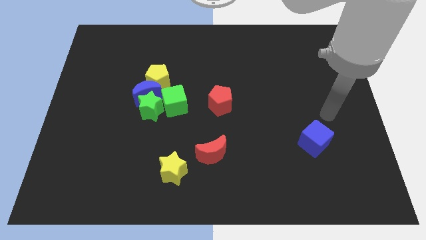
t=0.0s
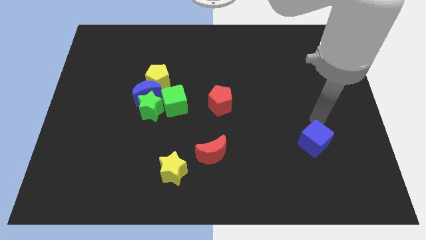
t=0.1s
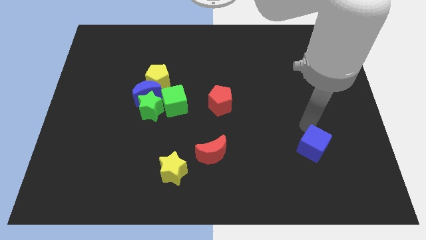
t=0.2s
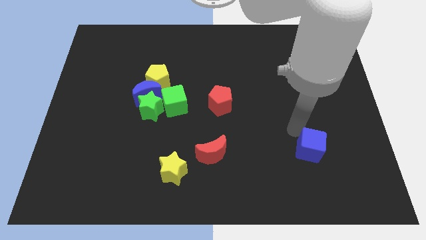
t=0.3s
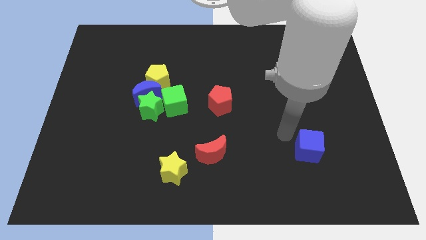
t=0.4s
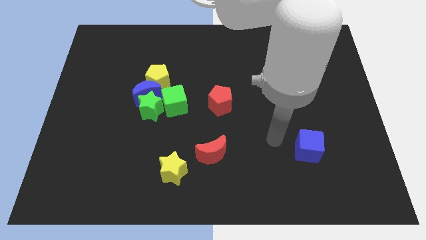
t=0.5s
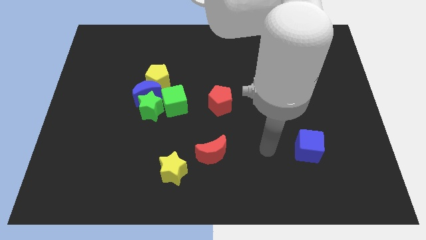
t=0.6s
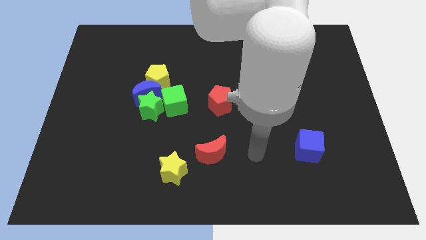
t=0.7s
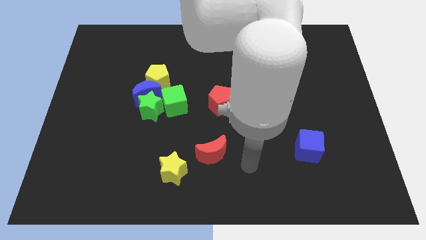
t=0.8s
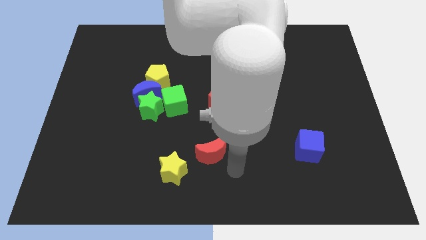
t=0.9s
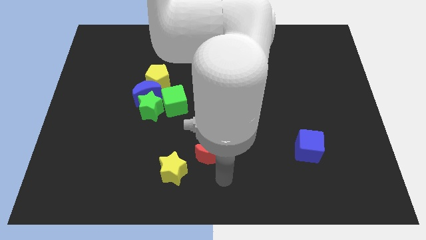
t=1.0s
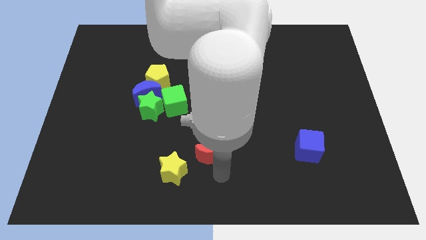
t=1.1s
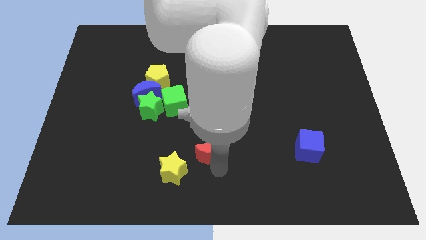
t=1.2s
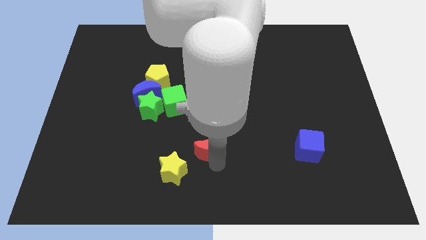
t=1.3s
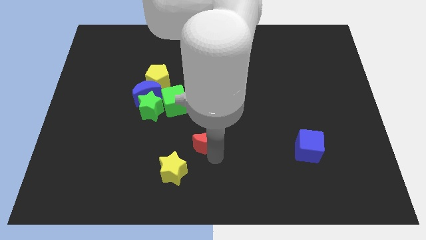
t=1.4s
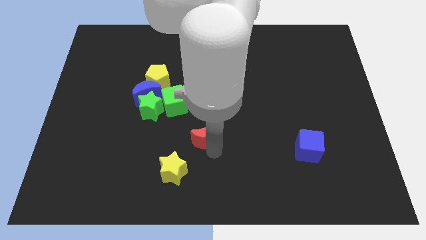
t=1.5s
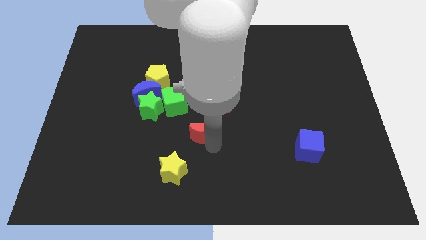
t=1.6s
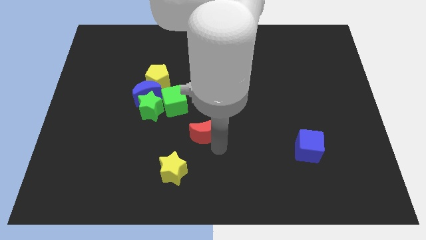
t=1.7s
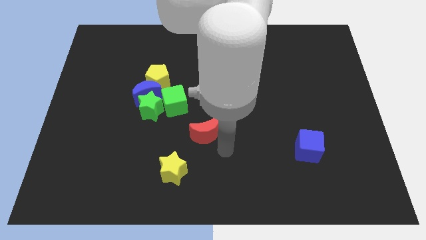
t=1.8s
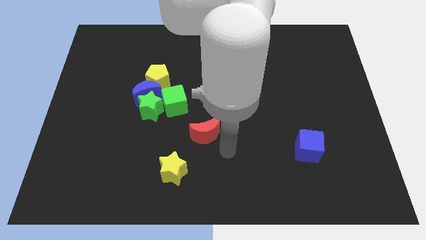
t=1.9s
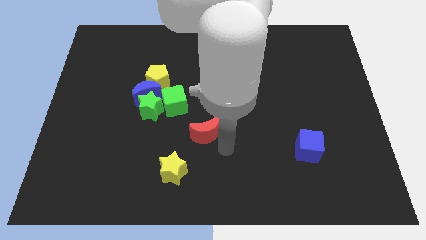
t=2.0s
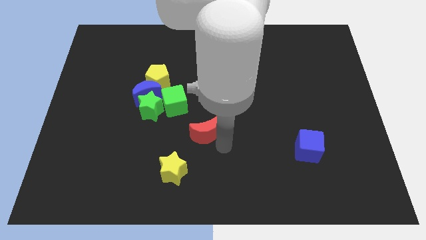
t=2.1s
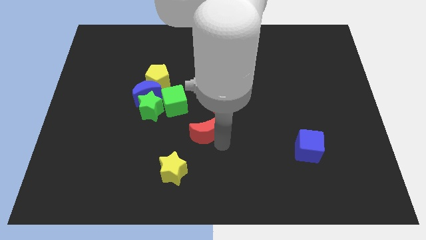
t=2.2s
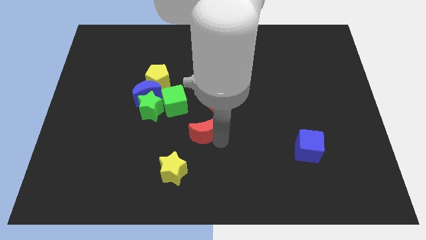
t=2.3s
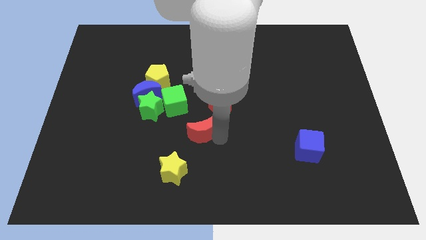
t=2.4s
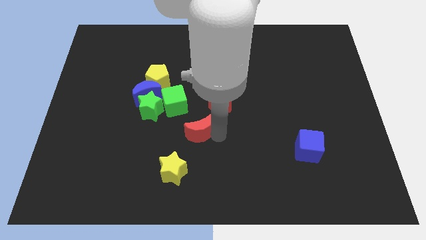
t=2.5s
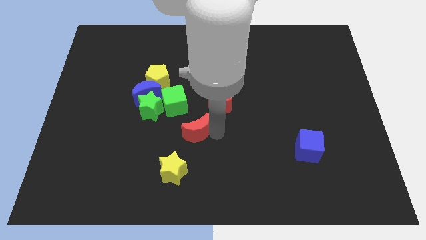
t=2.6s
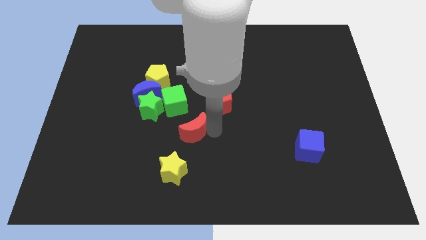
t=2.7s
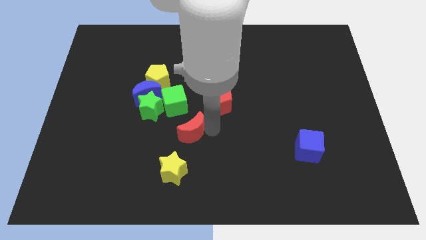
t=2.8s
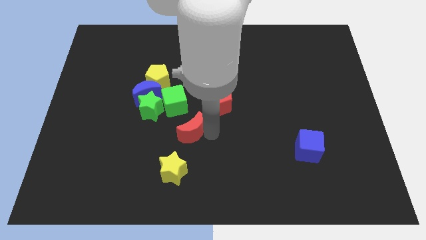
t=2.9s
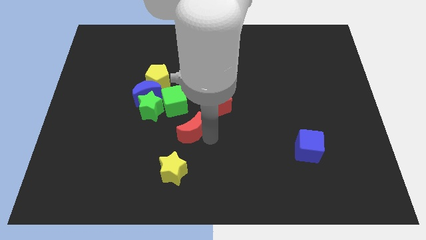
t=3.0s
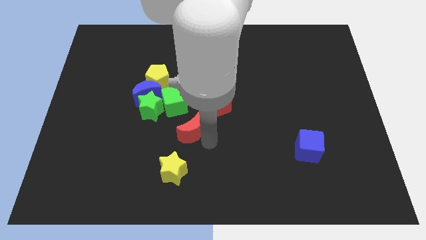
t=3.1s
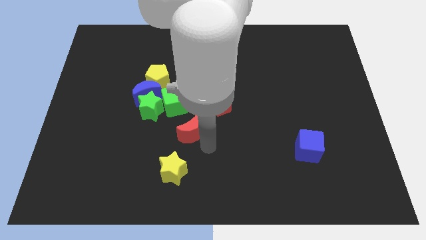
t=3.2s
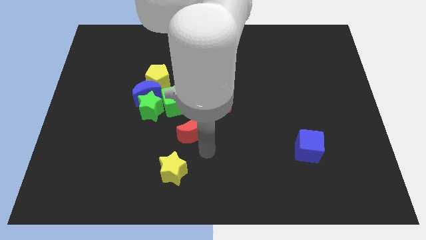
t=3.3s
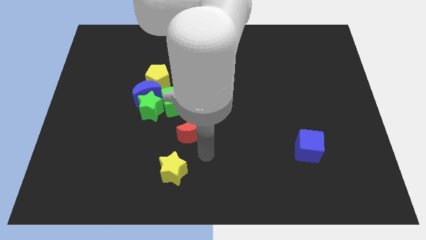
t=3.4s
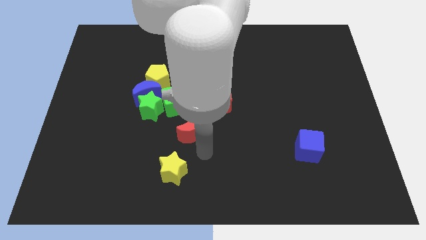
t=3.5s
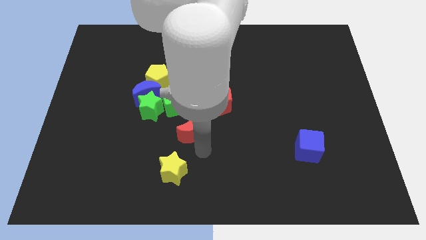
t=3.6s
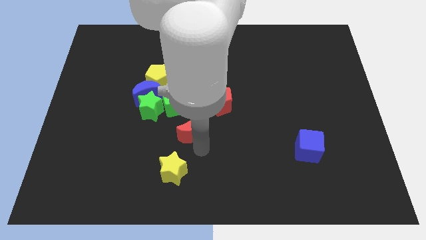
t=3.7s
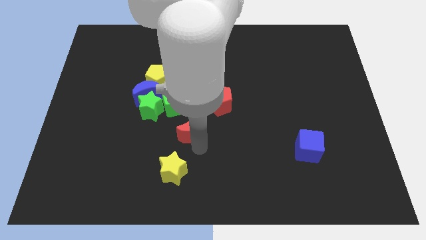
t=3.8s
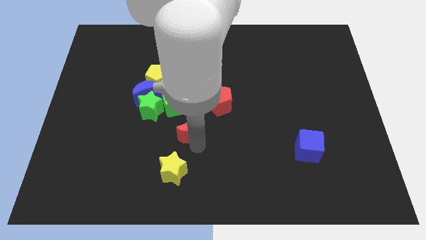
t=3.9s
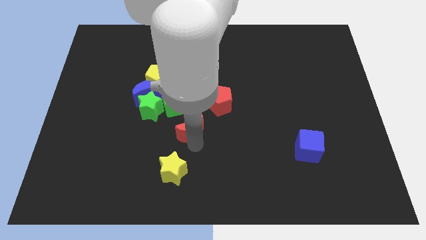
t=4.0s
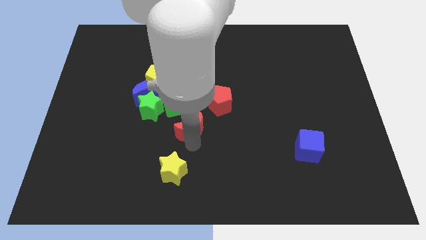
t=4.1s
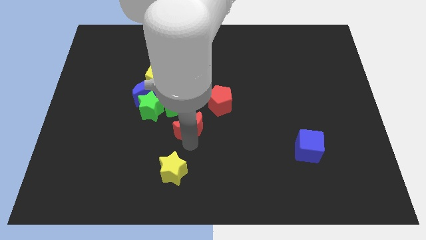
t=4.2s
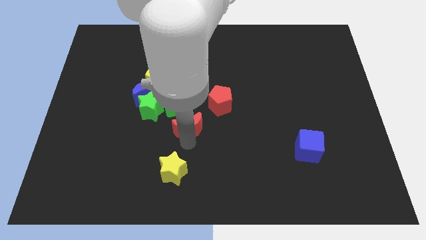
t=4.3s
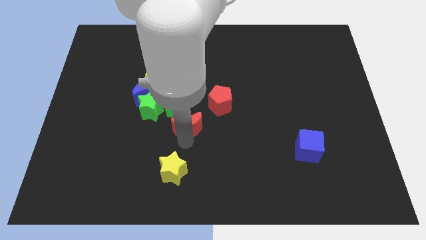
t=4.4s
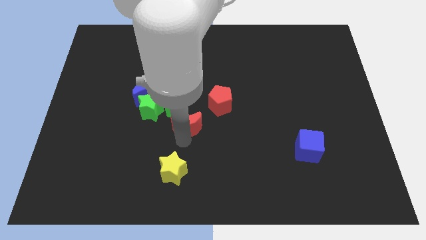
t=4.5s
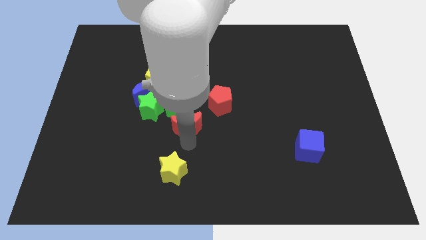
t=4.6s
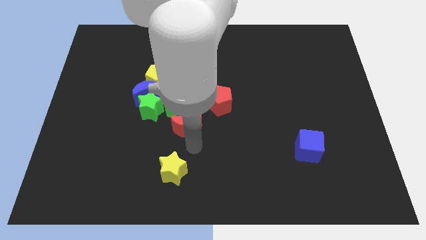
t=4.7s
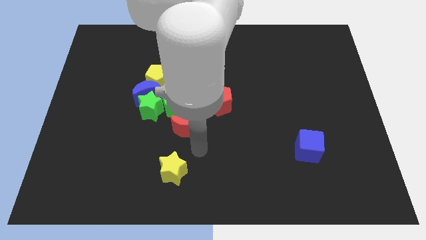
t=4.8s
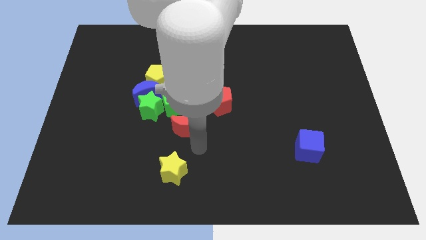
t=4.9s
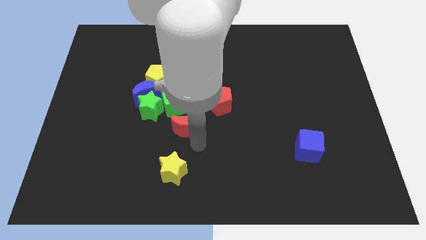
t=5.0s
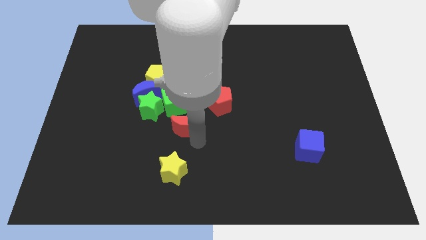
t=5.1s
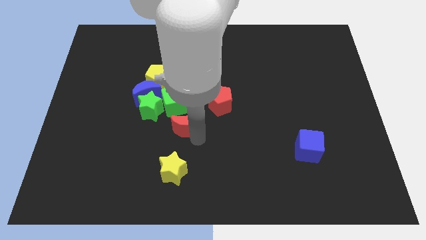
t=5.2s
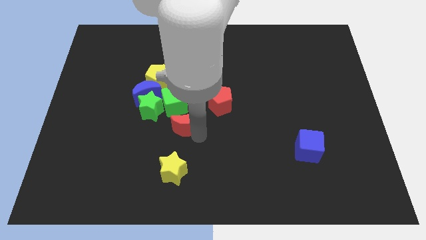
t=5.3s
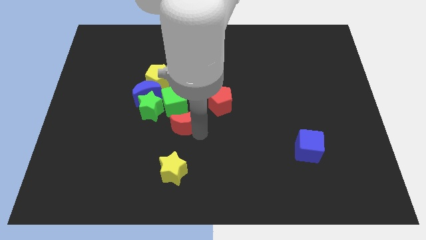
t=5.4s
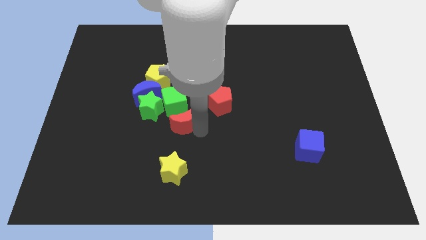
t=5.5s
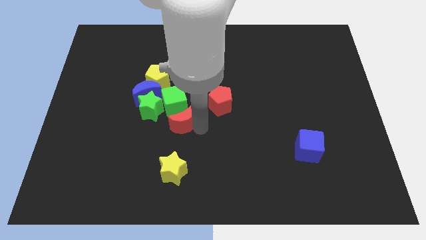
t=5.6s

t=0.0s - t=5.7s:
move the red moon towards the green cube

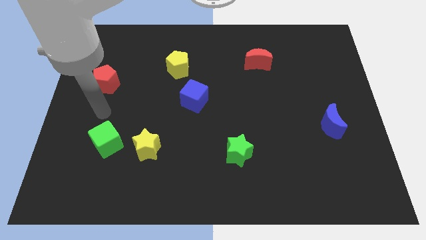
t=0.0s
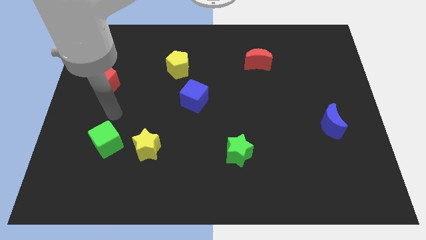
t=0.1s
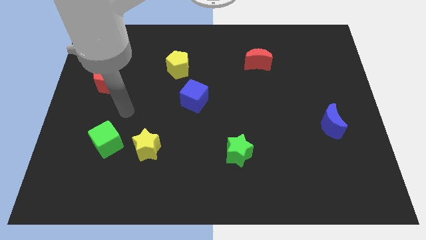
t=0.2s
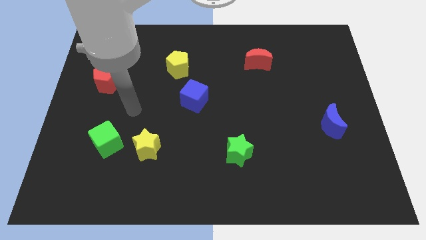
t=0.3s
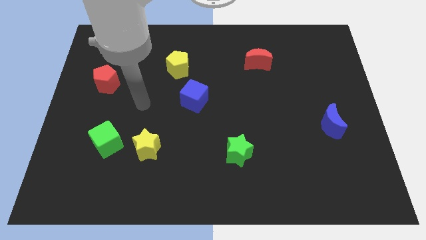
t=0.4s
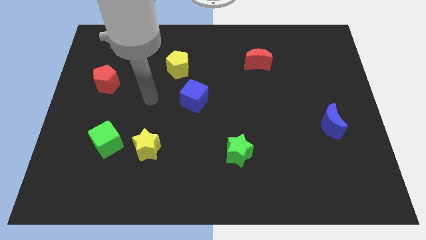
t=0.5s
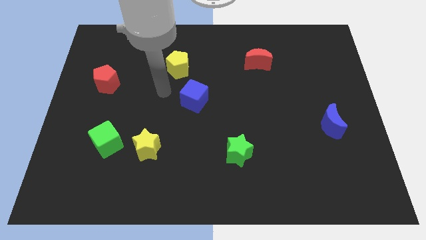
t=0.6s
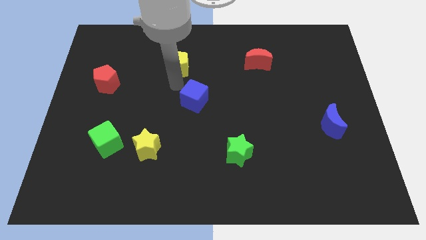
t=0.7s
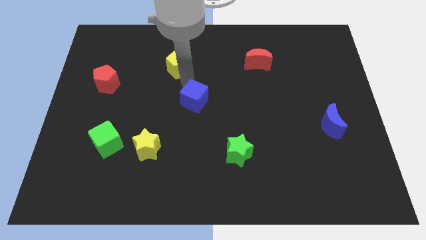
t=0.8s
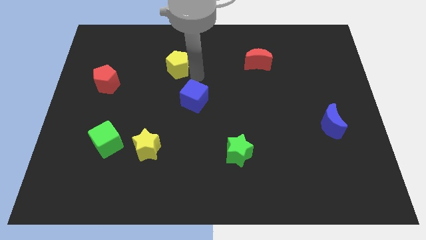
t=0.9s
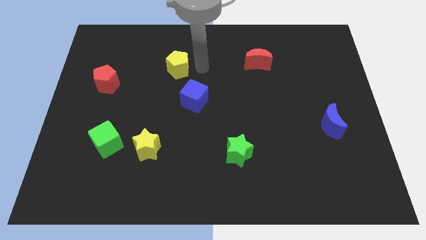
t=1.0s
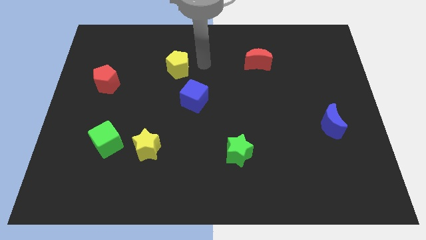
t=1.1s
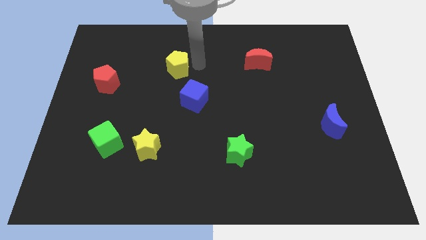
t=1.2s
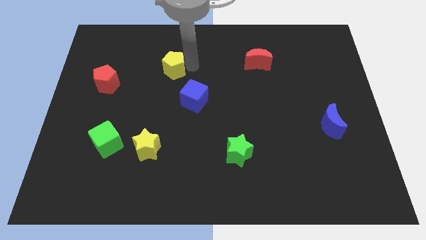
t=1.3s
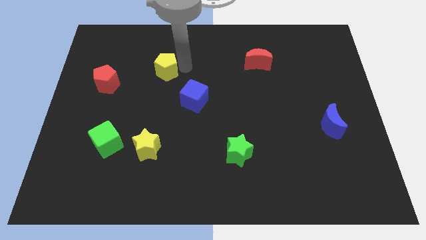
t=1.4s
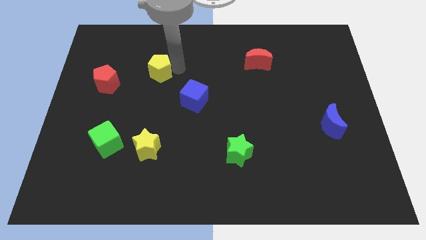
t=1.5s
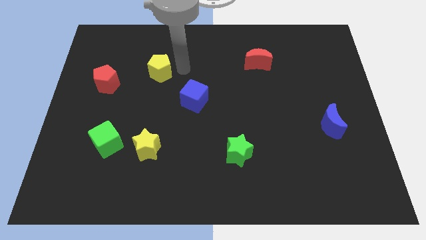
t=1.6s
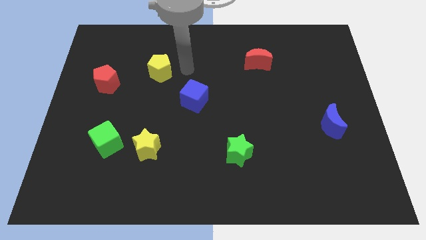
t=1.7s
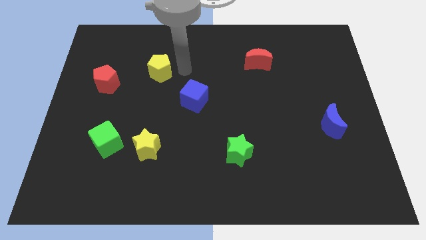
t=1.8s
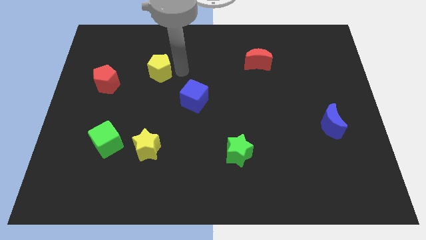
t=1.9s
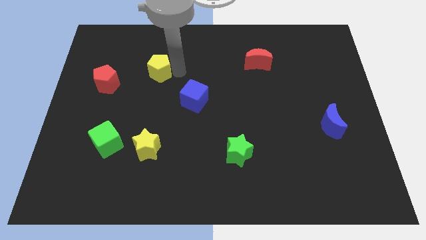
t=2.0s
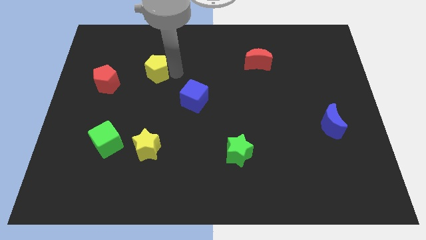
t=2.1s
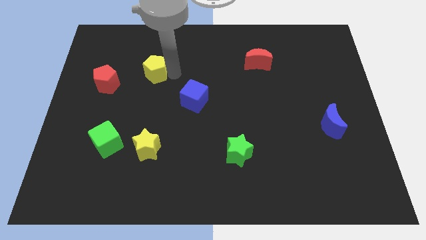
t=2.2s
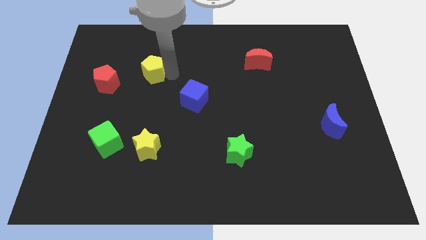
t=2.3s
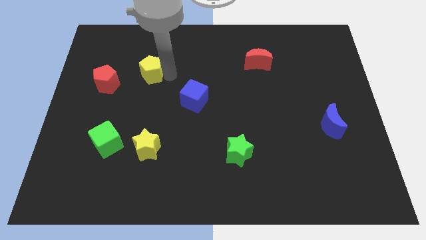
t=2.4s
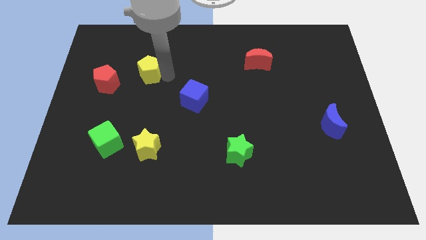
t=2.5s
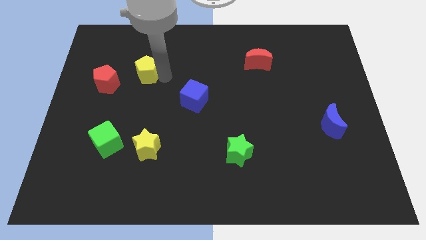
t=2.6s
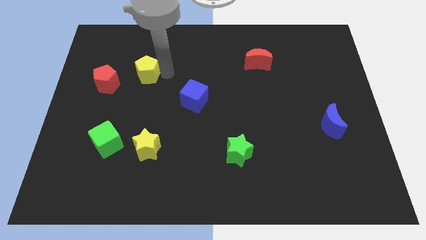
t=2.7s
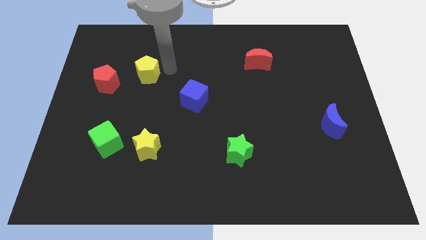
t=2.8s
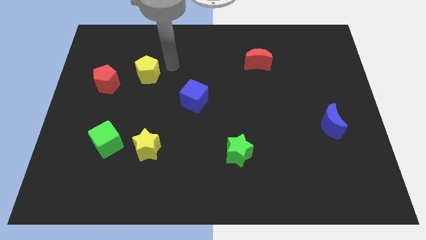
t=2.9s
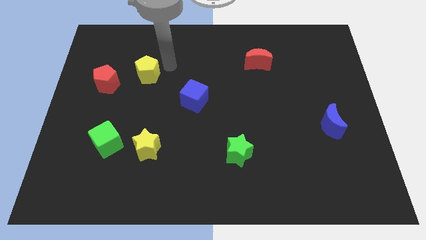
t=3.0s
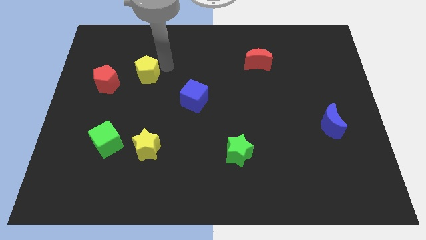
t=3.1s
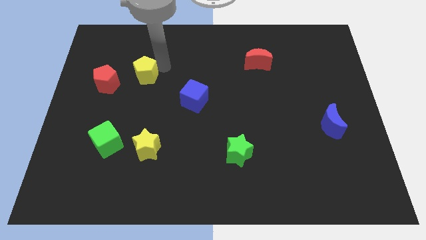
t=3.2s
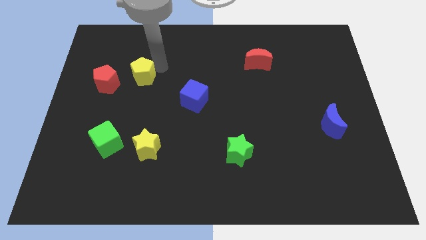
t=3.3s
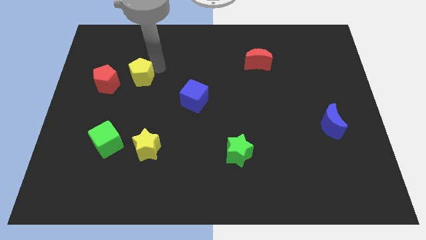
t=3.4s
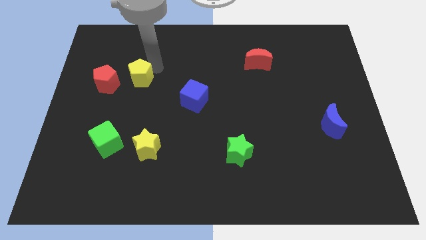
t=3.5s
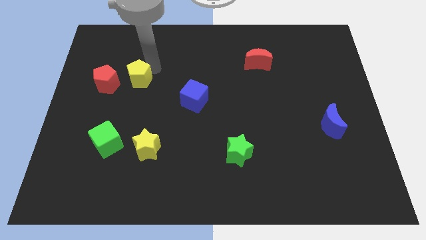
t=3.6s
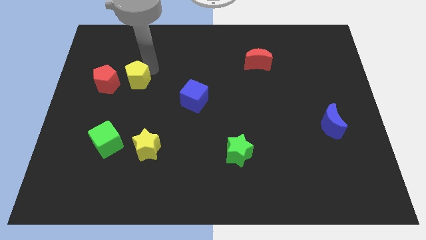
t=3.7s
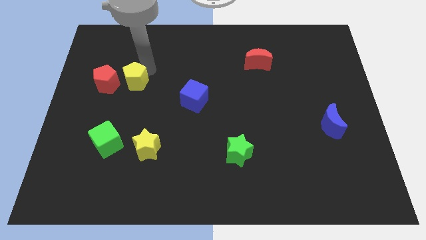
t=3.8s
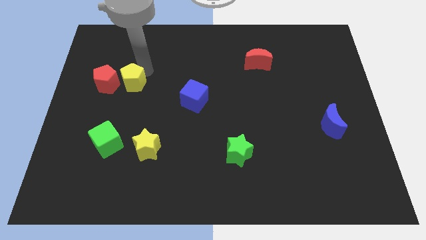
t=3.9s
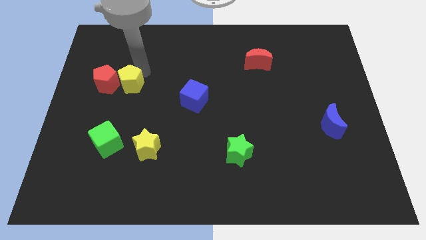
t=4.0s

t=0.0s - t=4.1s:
push the yellow pentagon next to the red pentagon
